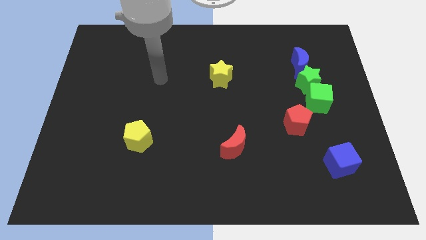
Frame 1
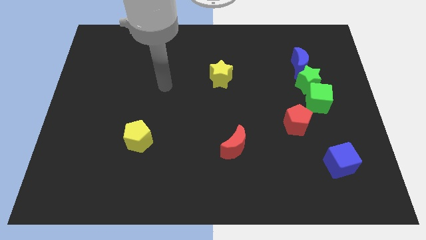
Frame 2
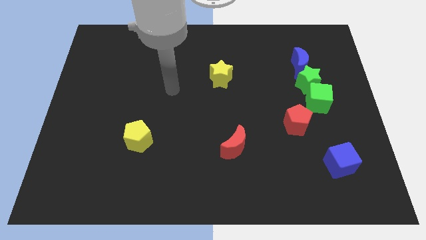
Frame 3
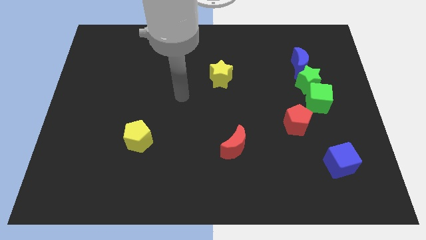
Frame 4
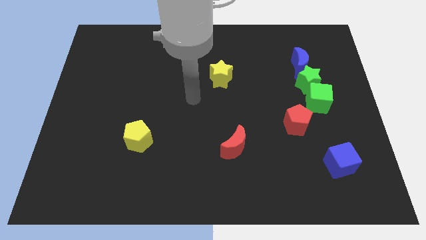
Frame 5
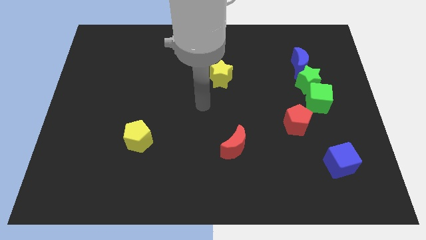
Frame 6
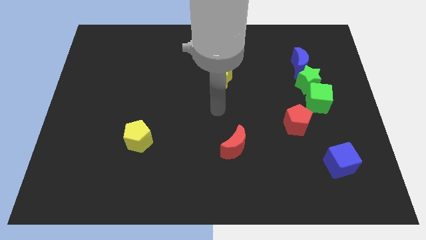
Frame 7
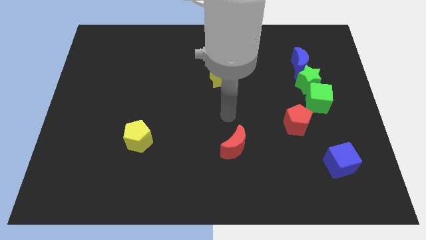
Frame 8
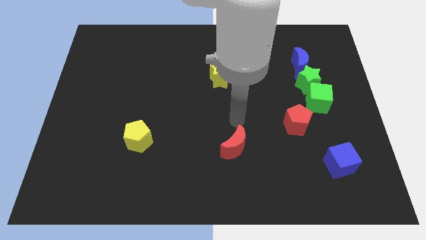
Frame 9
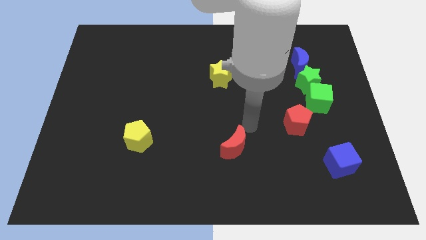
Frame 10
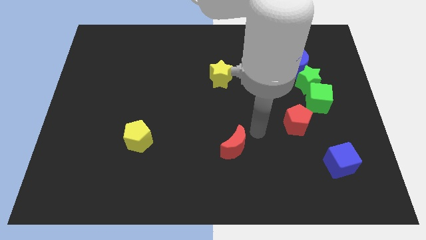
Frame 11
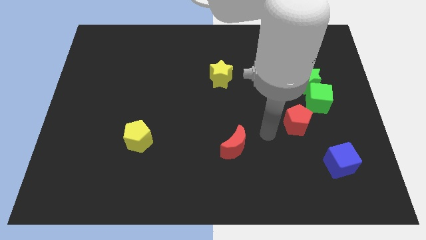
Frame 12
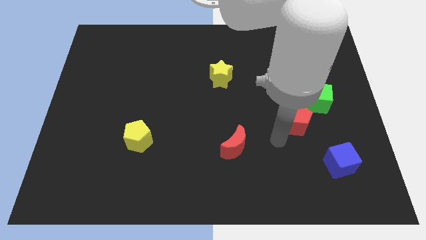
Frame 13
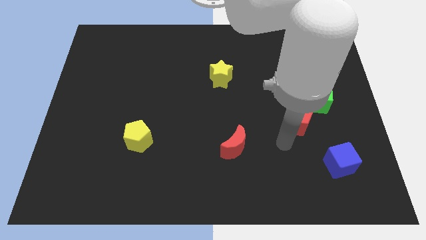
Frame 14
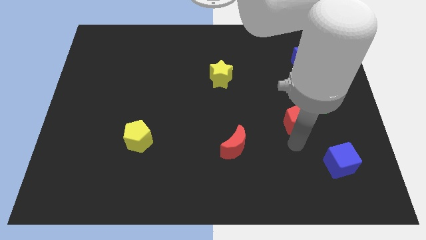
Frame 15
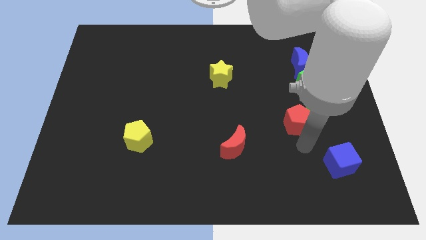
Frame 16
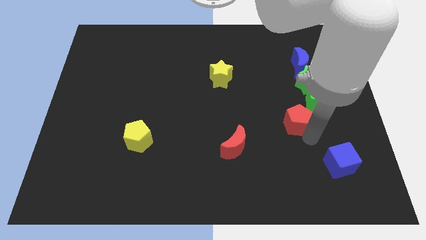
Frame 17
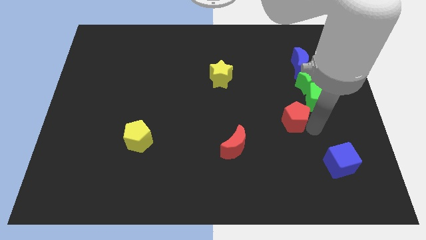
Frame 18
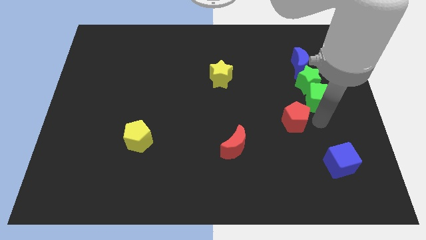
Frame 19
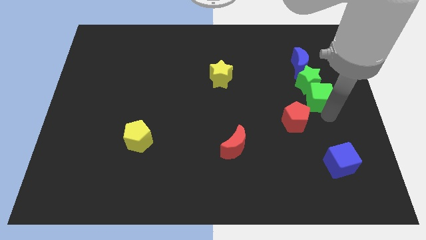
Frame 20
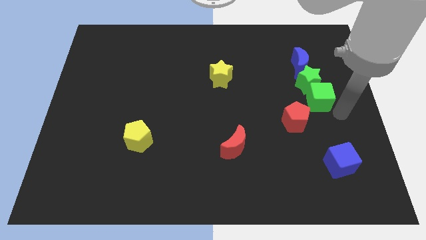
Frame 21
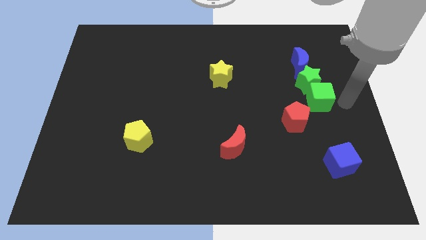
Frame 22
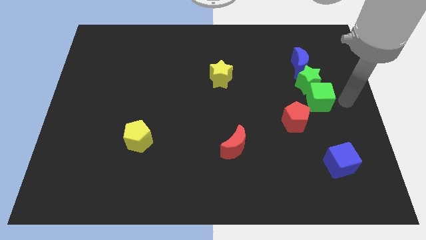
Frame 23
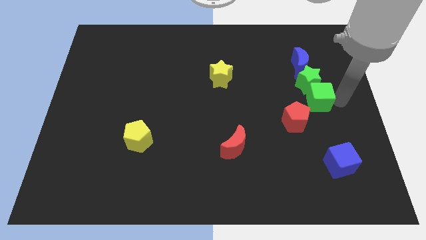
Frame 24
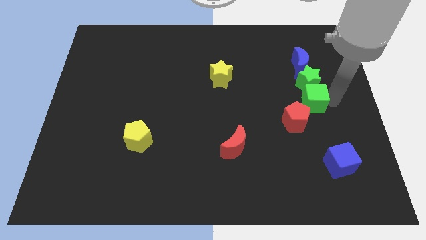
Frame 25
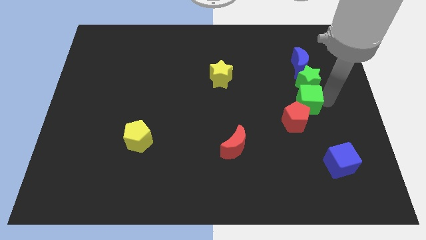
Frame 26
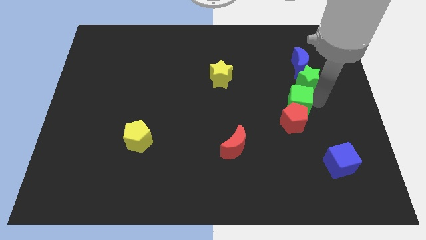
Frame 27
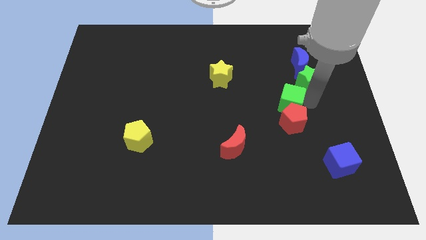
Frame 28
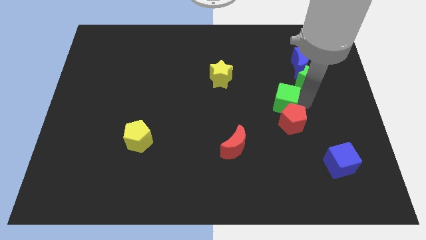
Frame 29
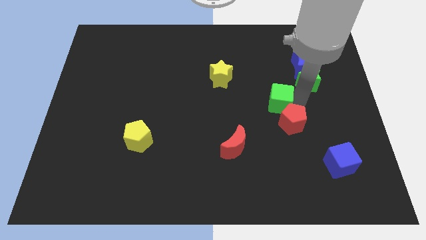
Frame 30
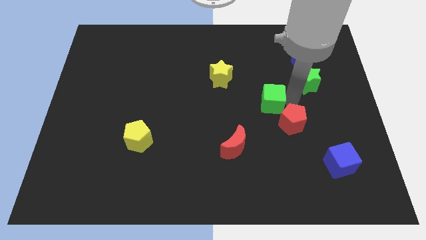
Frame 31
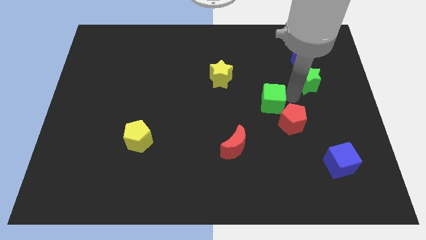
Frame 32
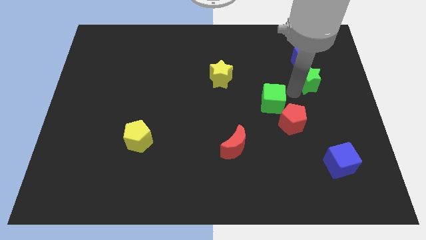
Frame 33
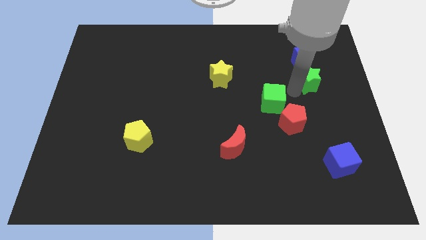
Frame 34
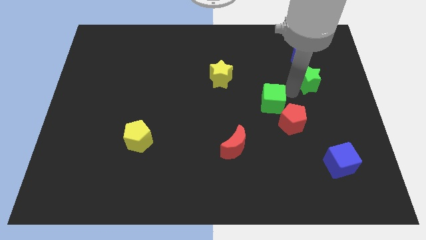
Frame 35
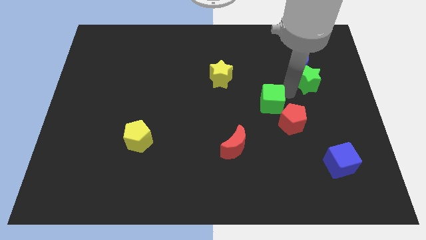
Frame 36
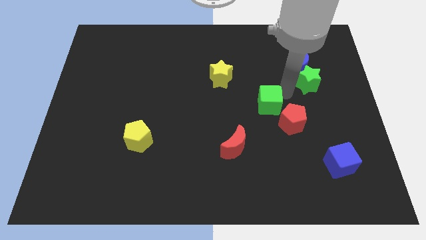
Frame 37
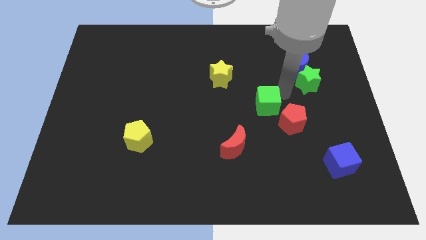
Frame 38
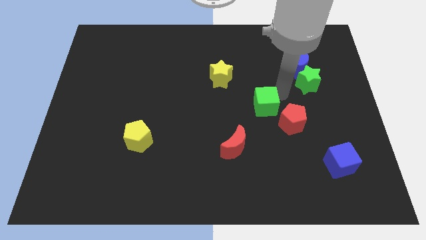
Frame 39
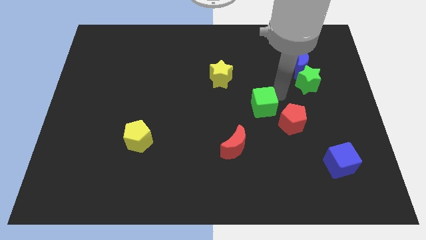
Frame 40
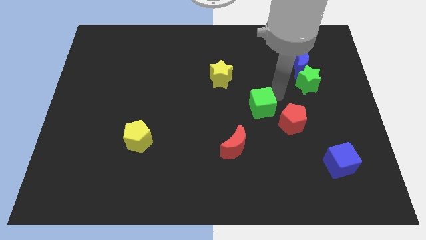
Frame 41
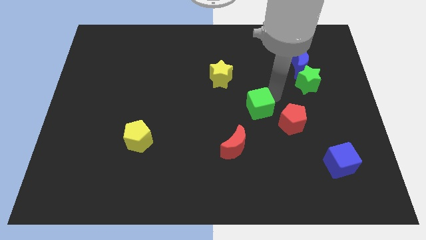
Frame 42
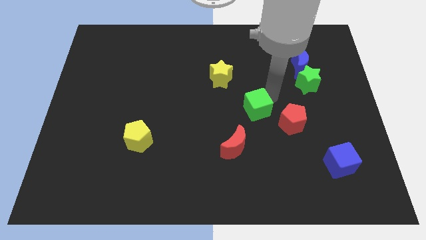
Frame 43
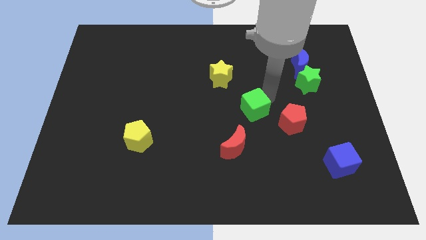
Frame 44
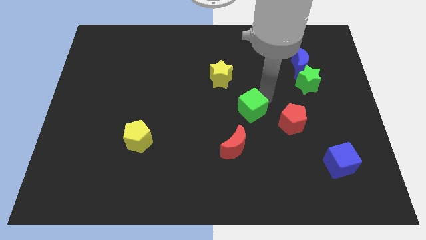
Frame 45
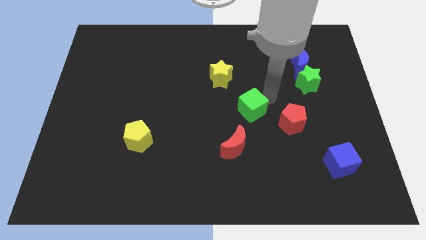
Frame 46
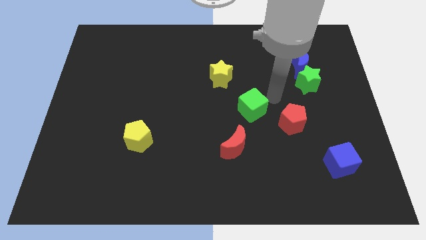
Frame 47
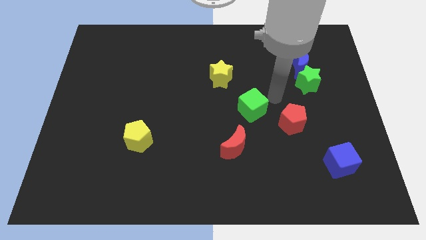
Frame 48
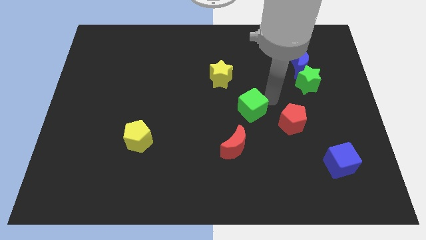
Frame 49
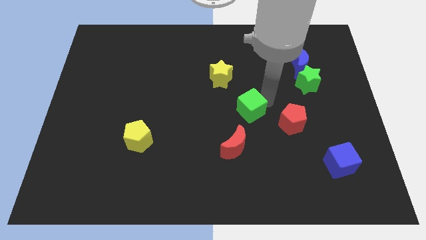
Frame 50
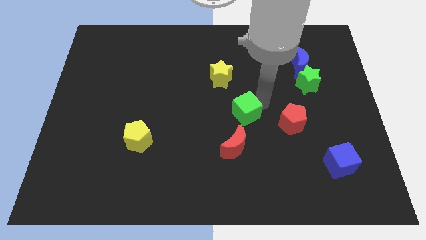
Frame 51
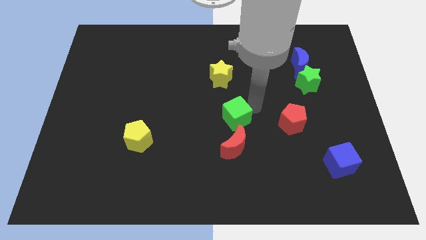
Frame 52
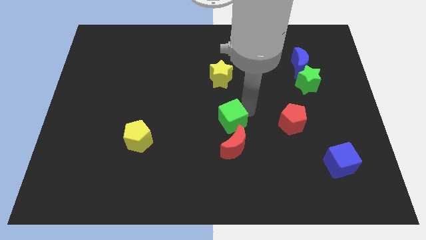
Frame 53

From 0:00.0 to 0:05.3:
put the green cube diagonally up and to the left of the red moon

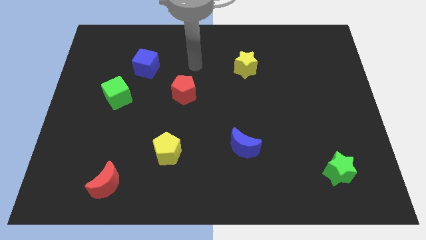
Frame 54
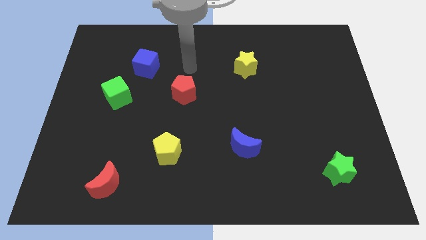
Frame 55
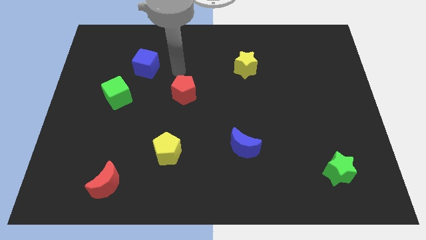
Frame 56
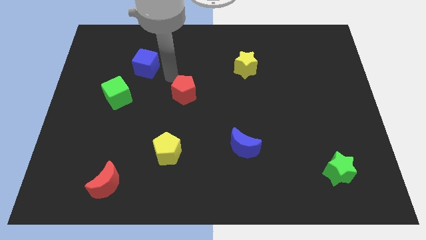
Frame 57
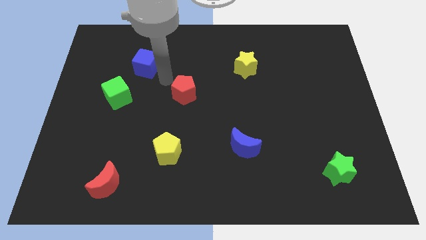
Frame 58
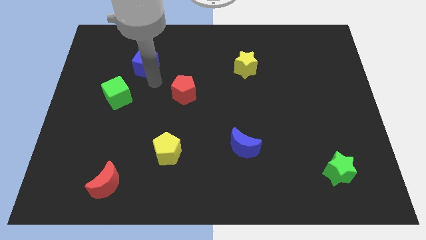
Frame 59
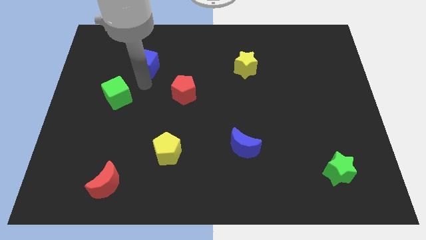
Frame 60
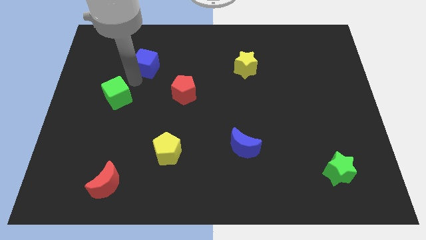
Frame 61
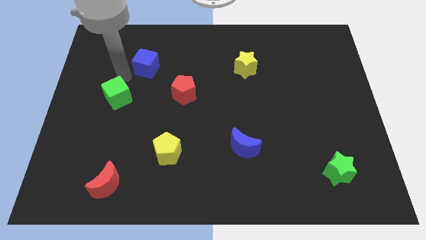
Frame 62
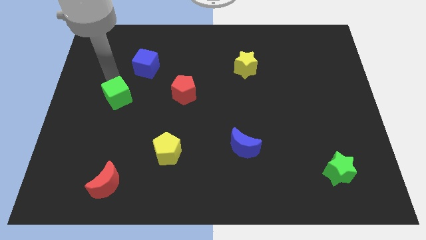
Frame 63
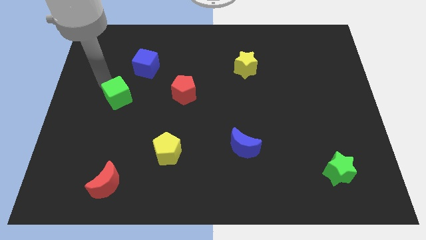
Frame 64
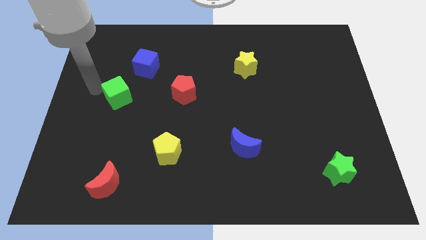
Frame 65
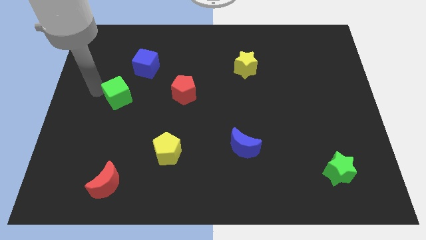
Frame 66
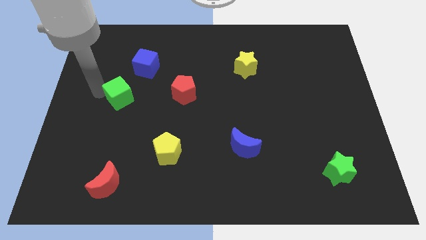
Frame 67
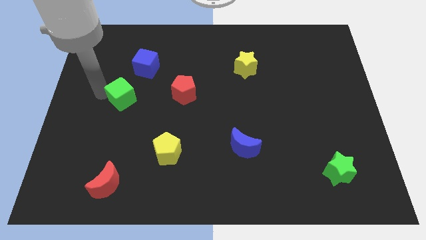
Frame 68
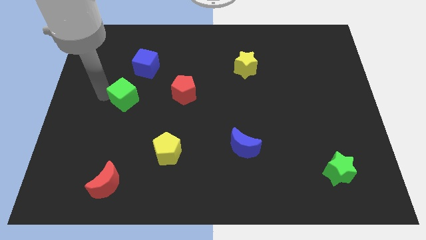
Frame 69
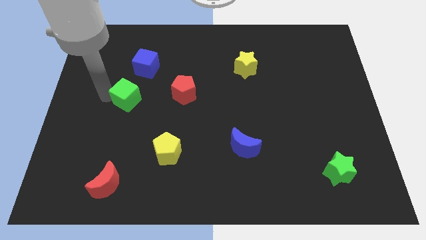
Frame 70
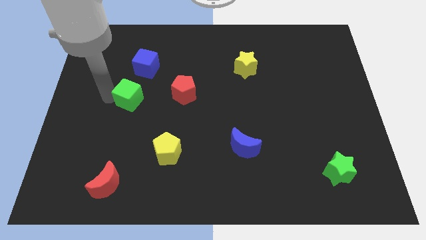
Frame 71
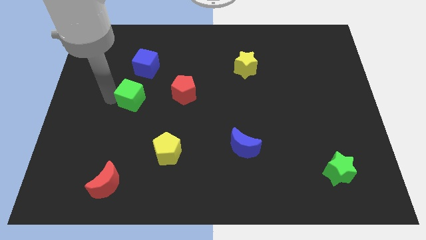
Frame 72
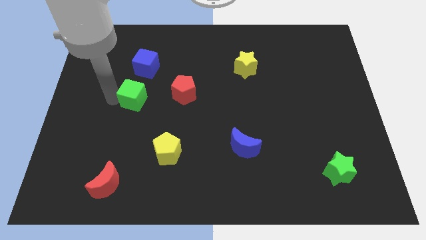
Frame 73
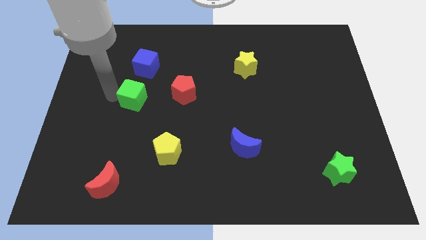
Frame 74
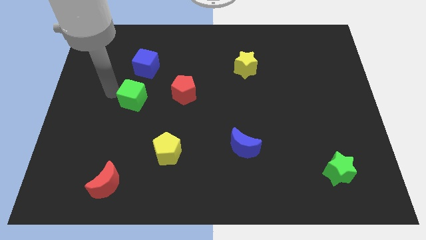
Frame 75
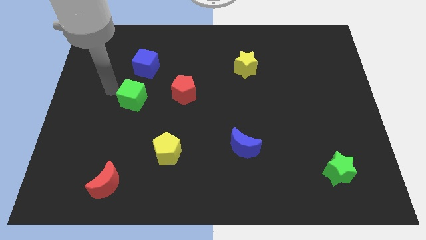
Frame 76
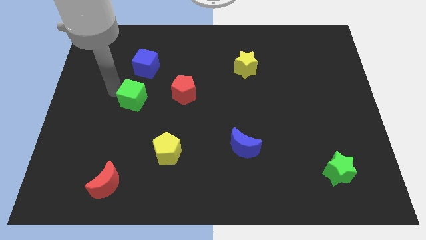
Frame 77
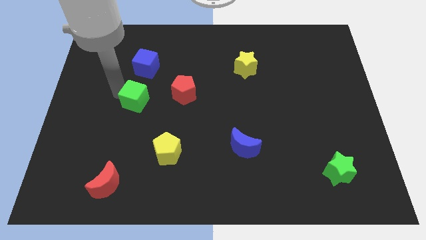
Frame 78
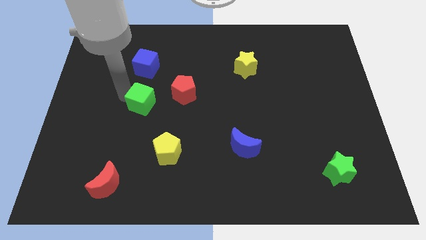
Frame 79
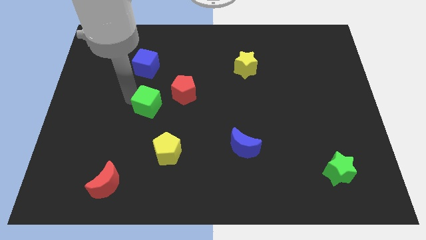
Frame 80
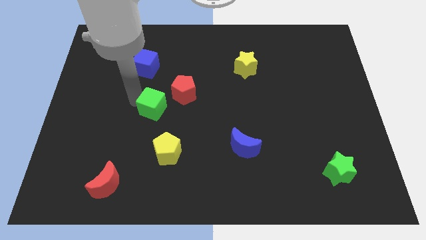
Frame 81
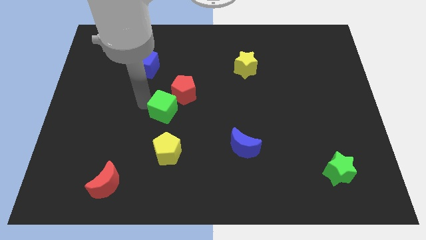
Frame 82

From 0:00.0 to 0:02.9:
put the green cube to the bottom of the red pentagon
